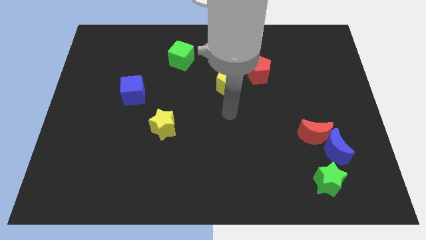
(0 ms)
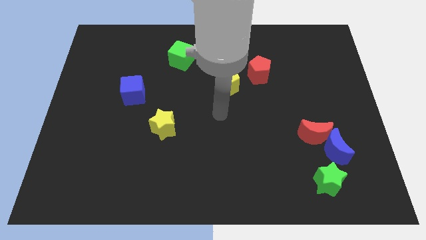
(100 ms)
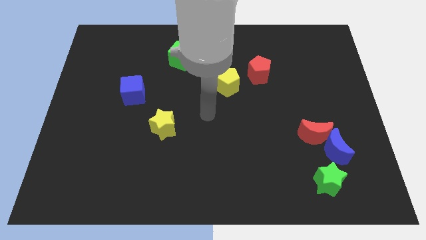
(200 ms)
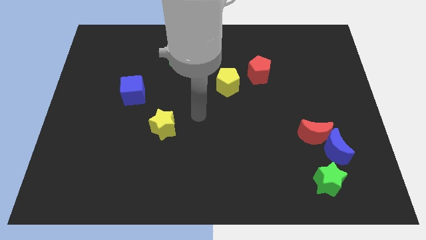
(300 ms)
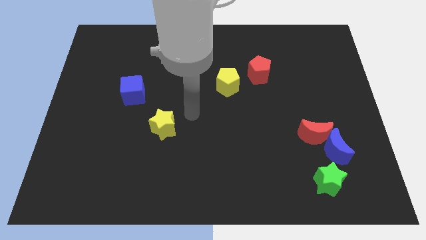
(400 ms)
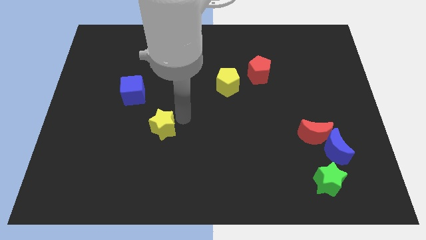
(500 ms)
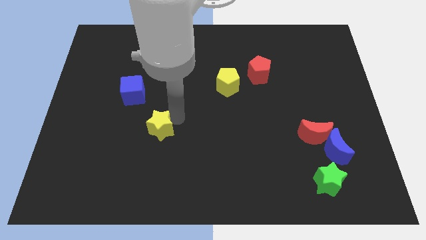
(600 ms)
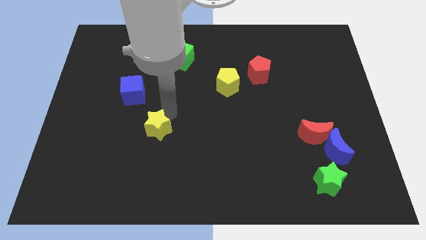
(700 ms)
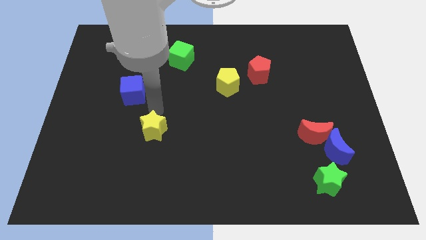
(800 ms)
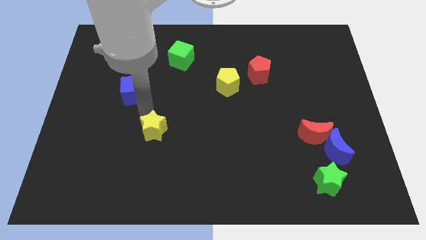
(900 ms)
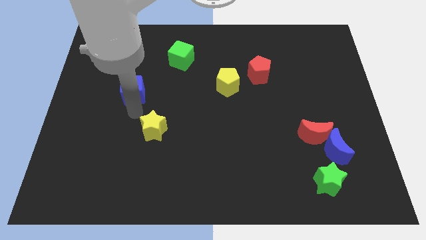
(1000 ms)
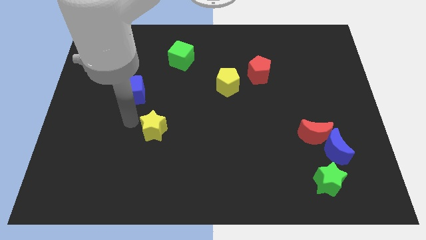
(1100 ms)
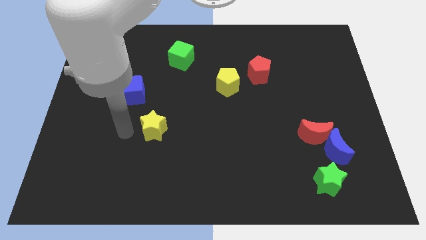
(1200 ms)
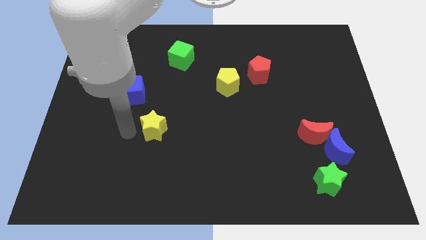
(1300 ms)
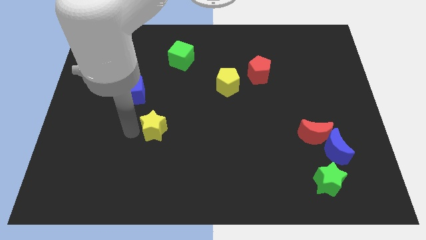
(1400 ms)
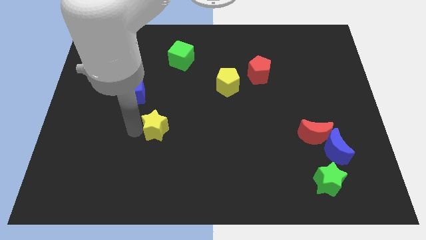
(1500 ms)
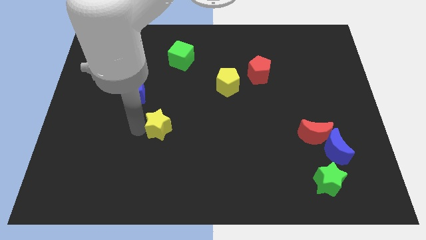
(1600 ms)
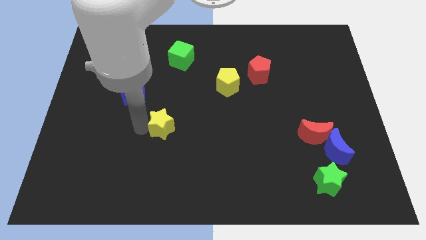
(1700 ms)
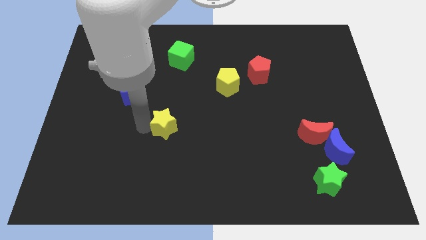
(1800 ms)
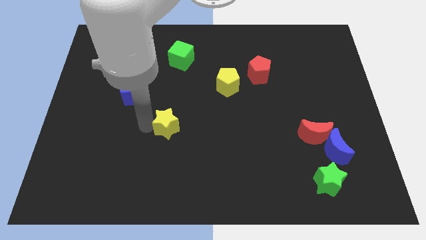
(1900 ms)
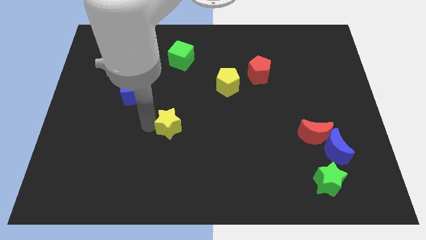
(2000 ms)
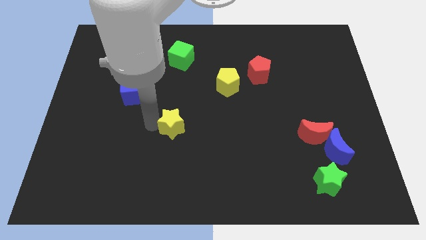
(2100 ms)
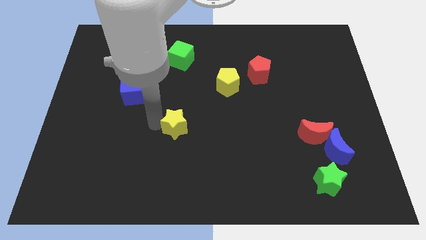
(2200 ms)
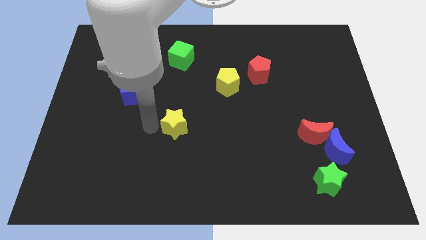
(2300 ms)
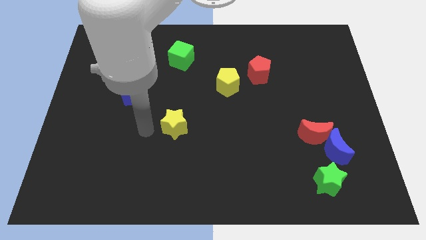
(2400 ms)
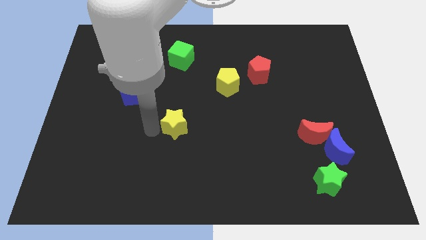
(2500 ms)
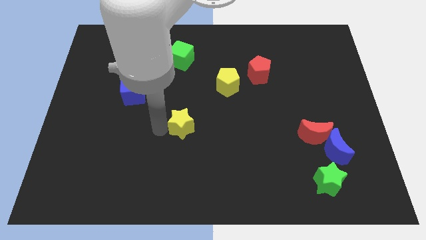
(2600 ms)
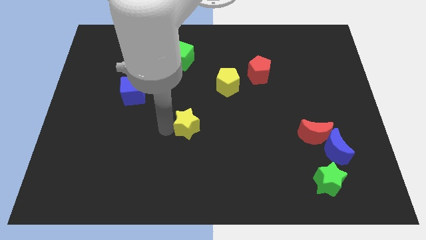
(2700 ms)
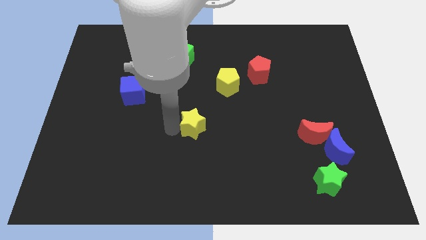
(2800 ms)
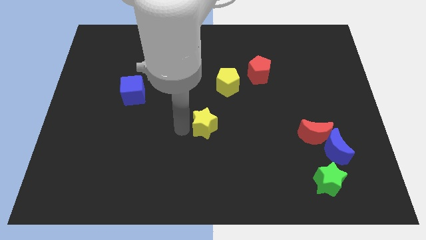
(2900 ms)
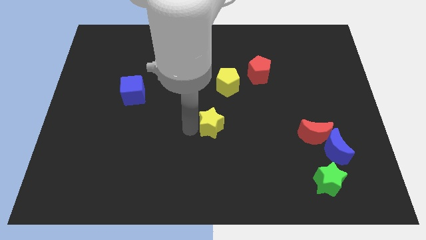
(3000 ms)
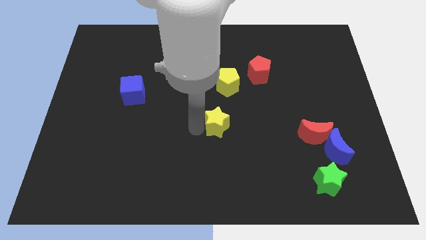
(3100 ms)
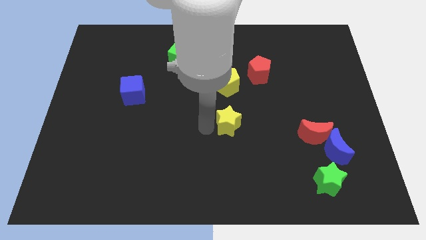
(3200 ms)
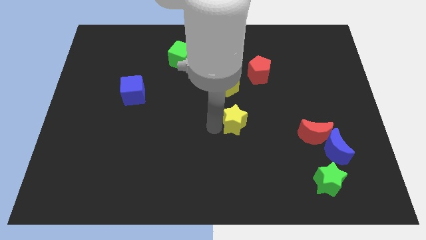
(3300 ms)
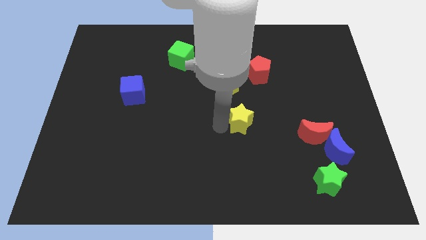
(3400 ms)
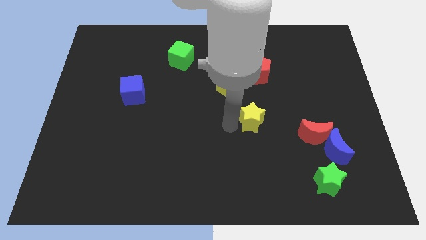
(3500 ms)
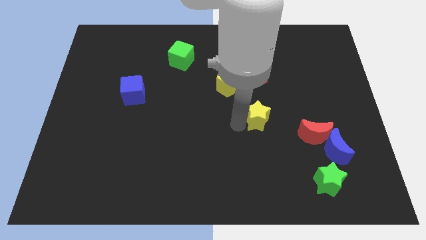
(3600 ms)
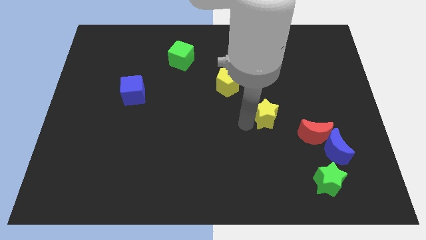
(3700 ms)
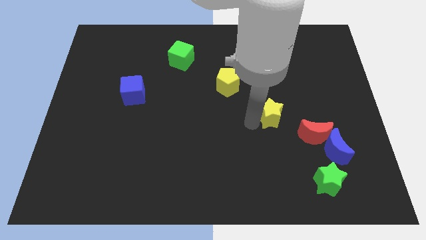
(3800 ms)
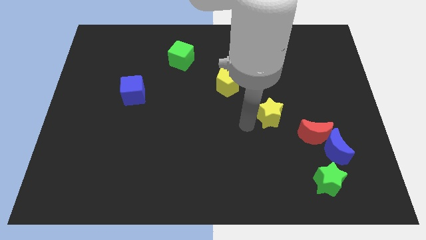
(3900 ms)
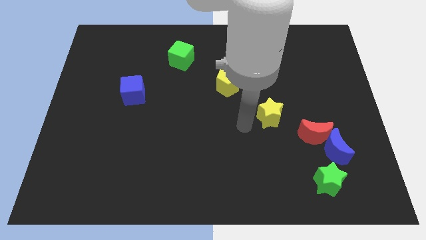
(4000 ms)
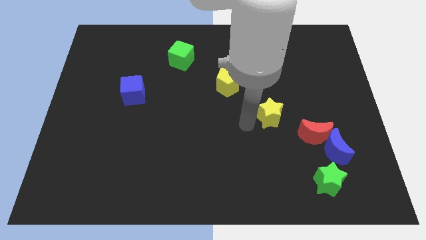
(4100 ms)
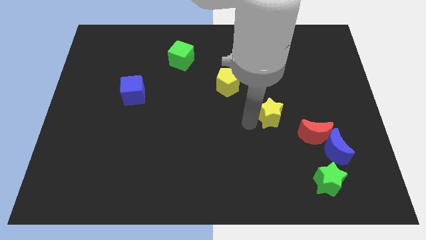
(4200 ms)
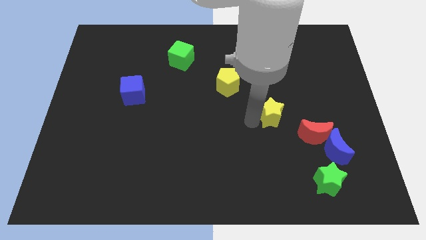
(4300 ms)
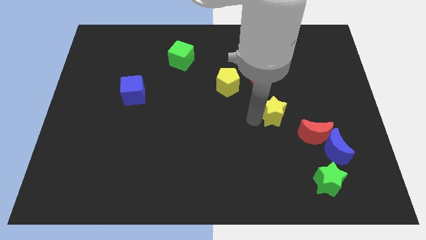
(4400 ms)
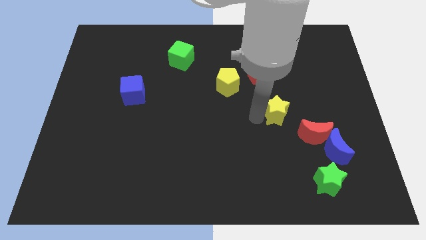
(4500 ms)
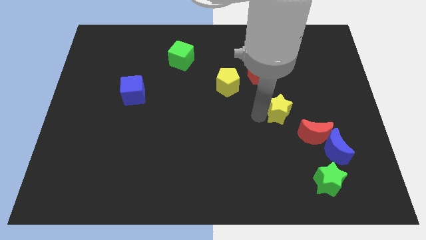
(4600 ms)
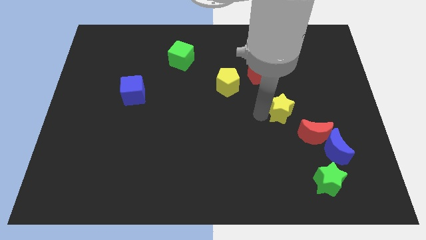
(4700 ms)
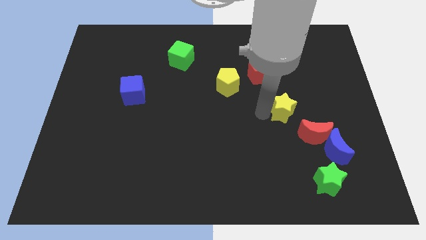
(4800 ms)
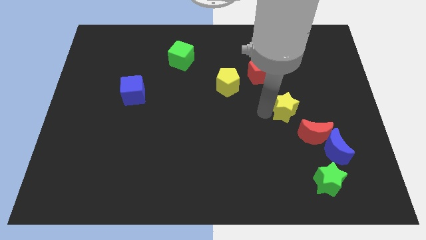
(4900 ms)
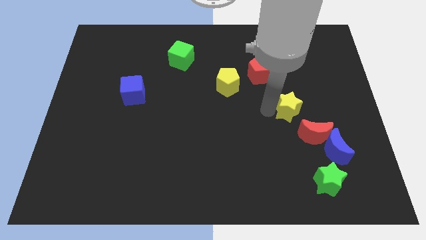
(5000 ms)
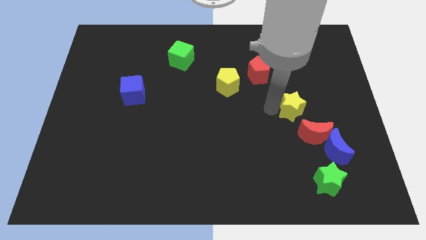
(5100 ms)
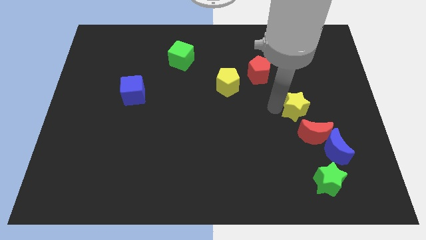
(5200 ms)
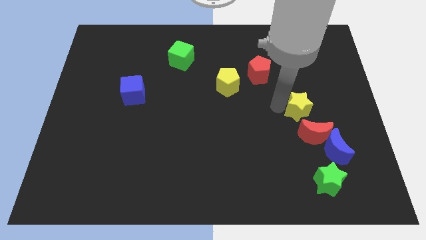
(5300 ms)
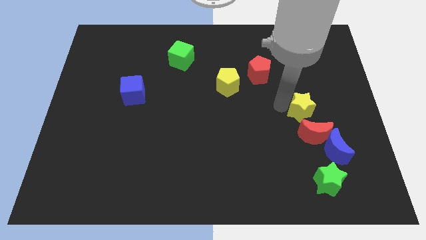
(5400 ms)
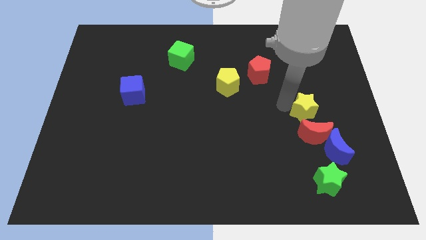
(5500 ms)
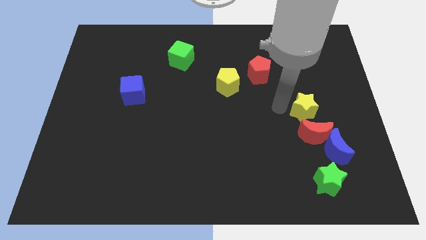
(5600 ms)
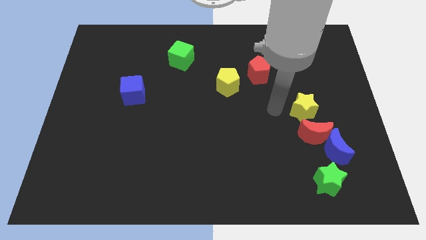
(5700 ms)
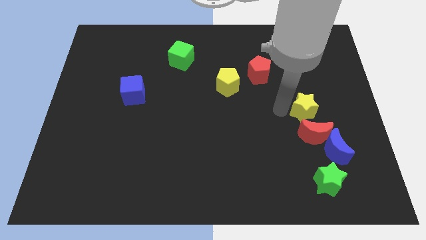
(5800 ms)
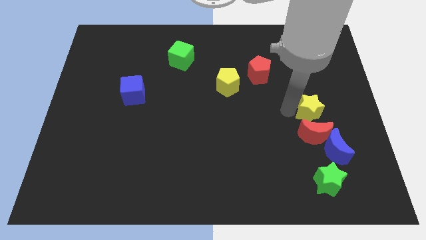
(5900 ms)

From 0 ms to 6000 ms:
put the yellow star above the blue moon

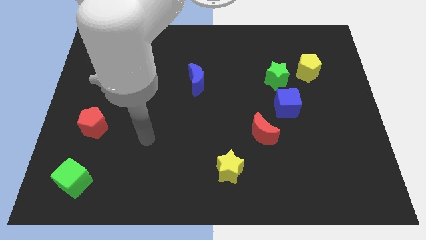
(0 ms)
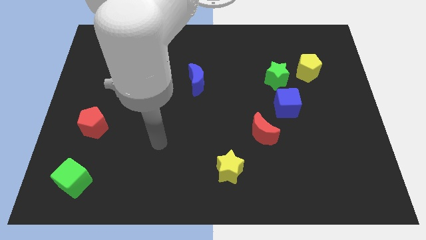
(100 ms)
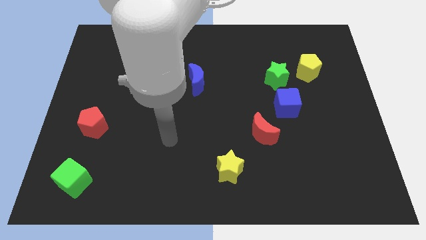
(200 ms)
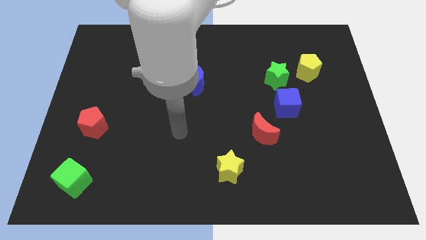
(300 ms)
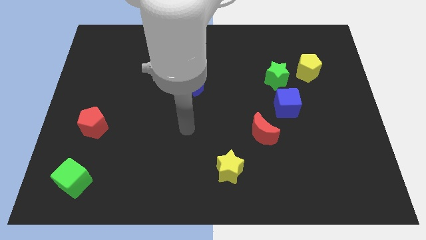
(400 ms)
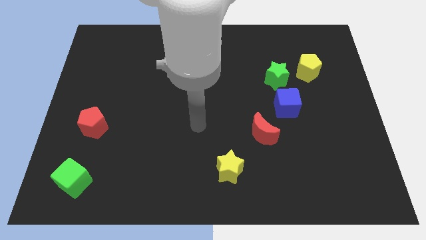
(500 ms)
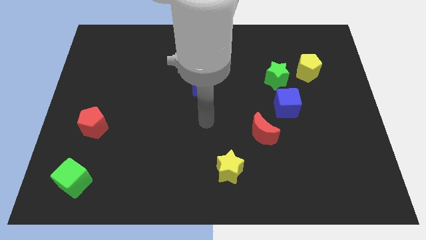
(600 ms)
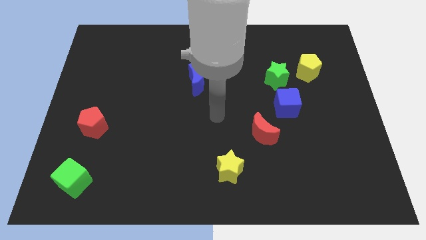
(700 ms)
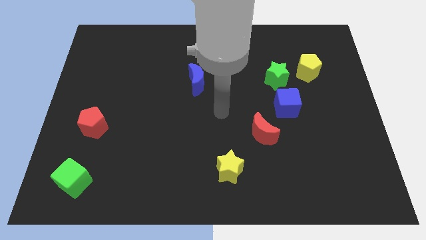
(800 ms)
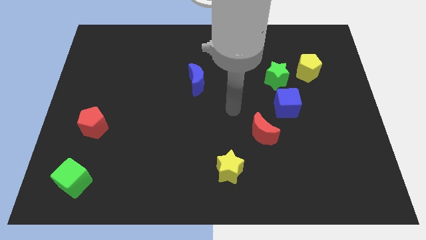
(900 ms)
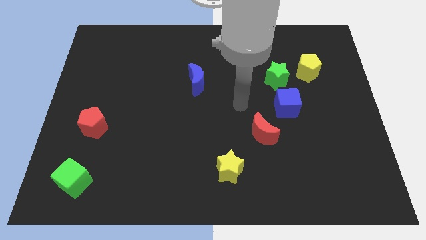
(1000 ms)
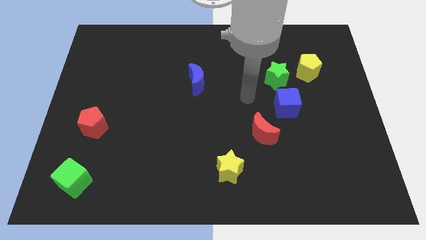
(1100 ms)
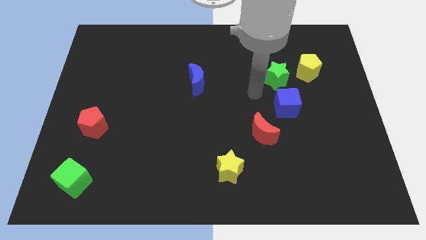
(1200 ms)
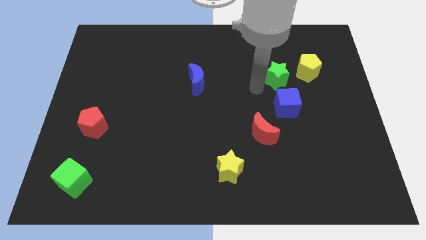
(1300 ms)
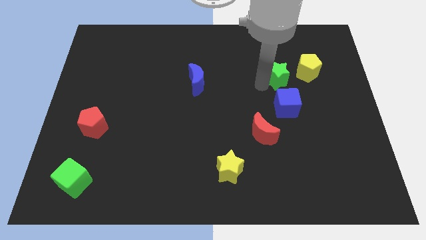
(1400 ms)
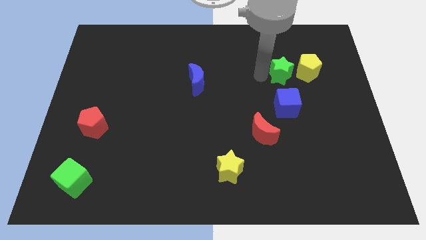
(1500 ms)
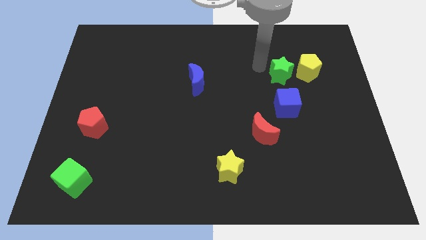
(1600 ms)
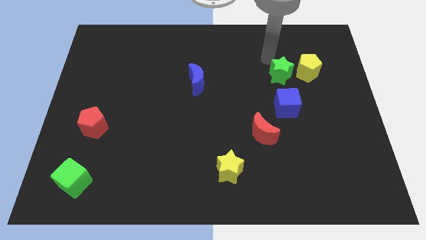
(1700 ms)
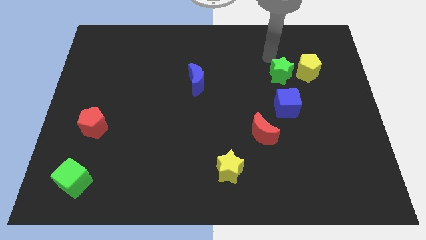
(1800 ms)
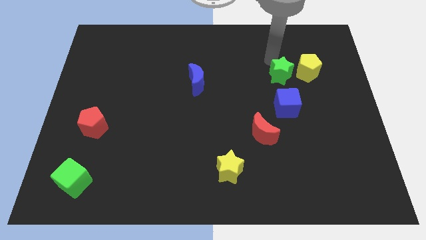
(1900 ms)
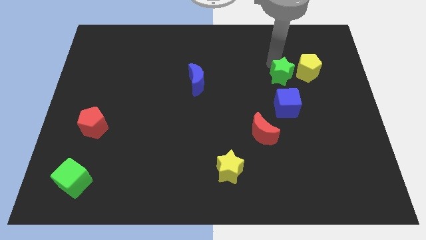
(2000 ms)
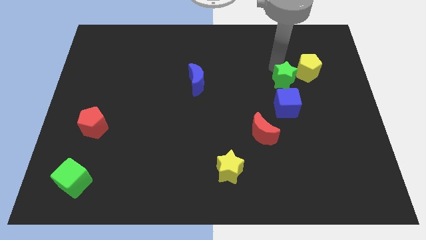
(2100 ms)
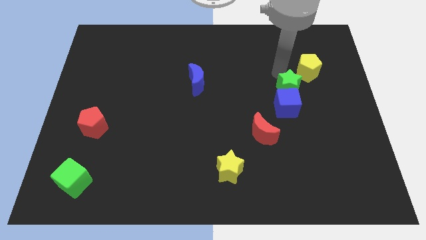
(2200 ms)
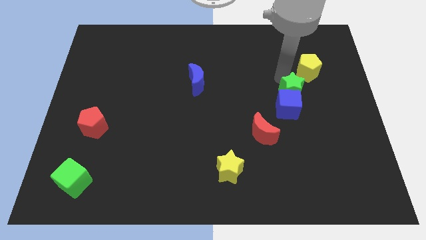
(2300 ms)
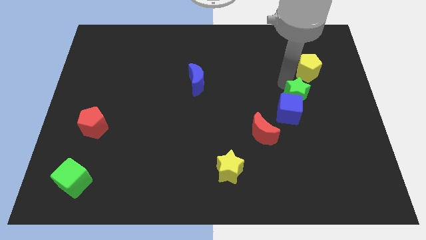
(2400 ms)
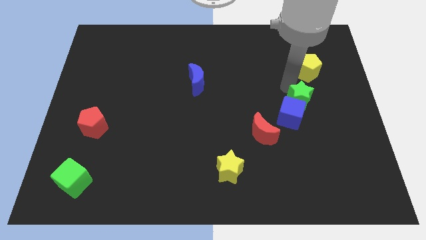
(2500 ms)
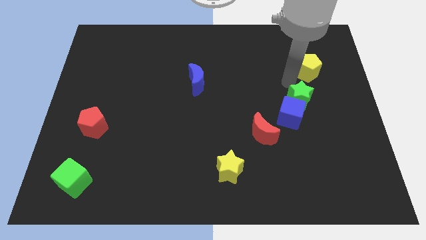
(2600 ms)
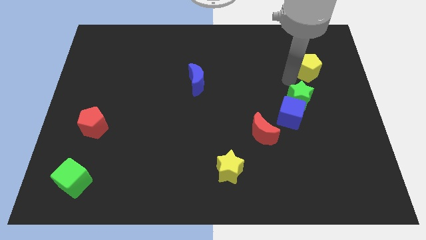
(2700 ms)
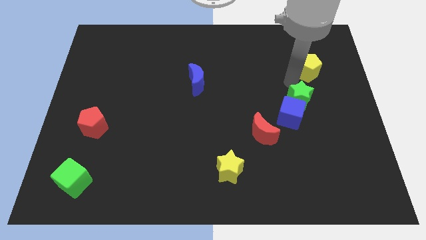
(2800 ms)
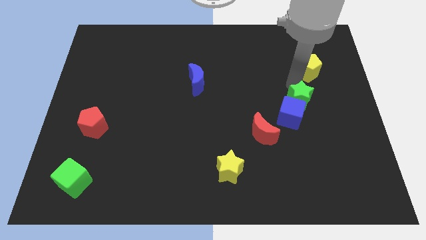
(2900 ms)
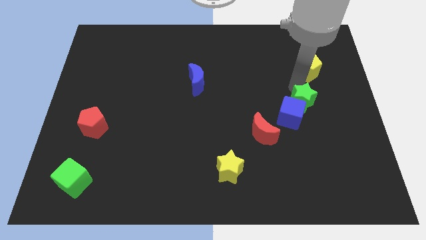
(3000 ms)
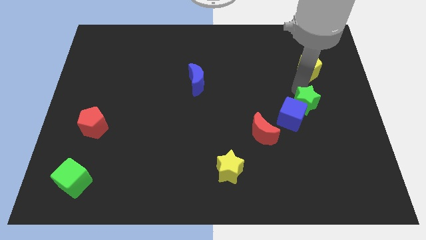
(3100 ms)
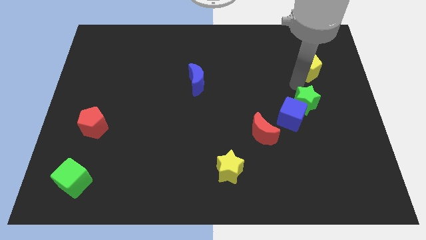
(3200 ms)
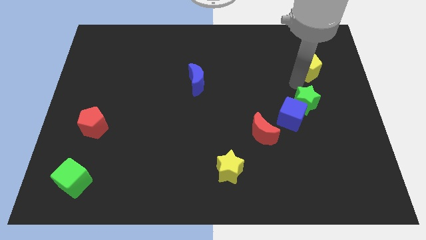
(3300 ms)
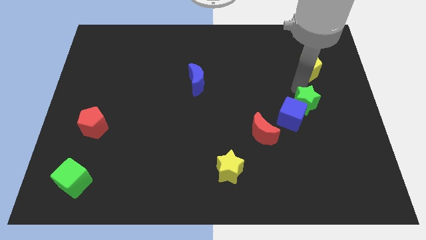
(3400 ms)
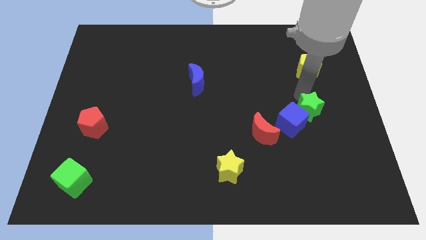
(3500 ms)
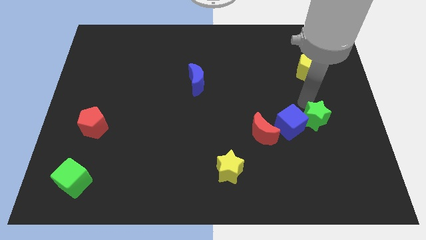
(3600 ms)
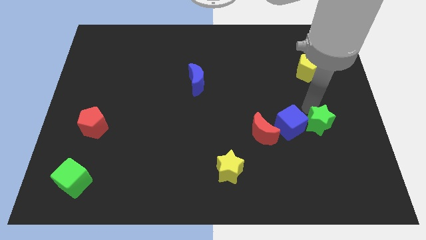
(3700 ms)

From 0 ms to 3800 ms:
push the green star diagonally down and to the right of the blue cube
